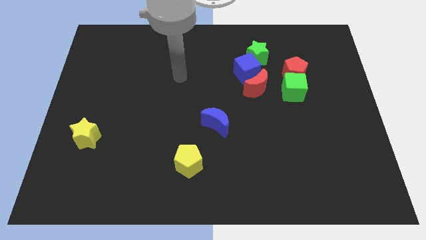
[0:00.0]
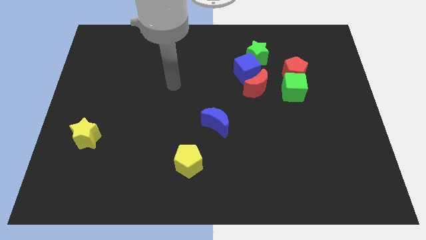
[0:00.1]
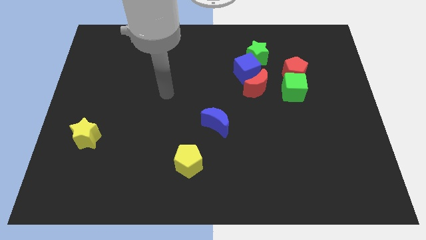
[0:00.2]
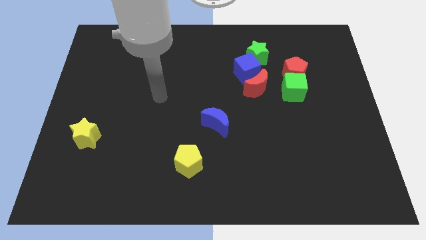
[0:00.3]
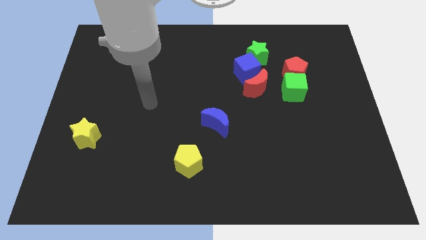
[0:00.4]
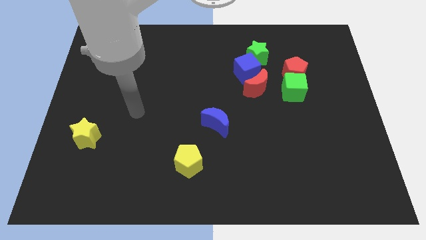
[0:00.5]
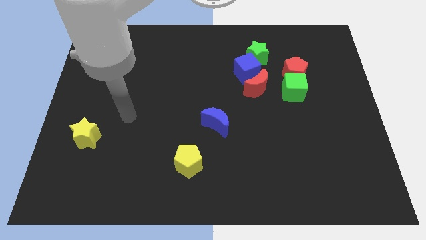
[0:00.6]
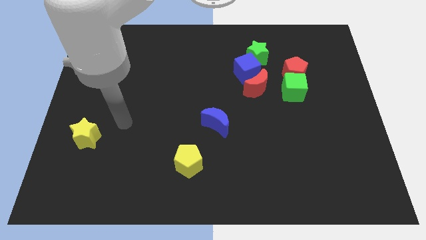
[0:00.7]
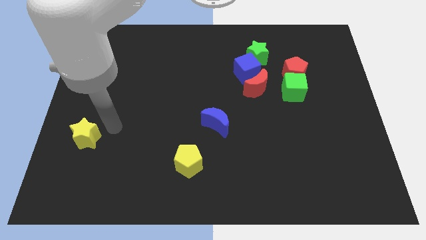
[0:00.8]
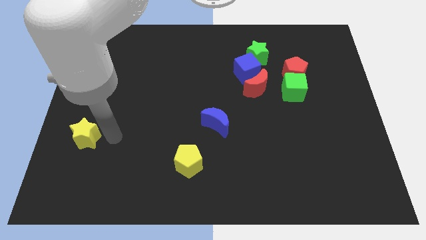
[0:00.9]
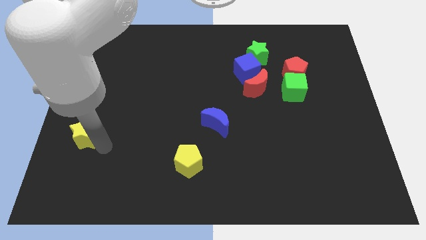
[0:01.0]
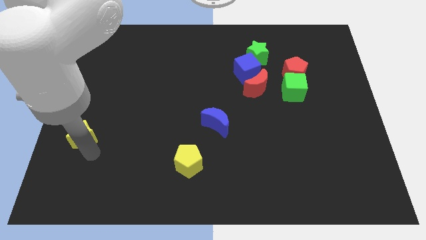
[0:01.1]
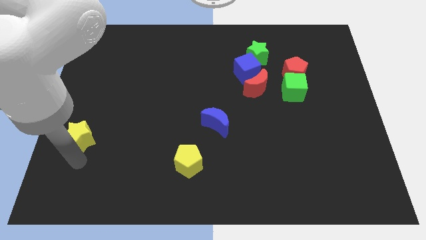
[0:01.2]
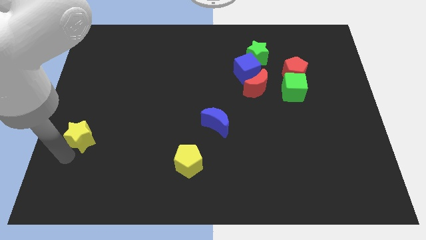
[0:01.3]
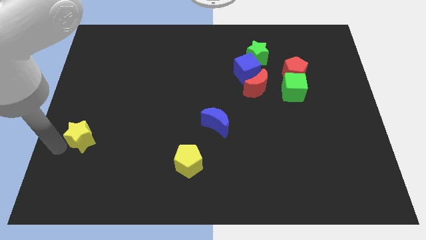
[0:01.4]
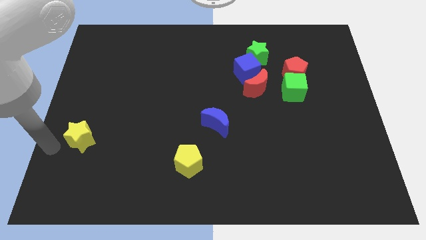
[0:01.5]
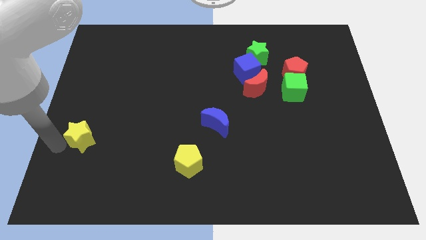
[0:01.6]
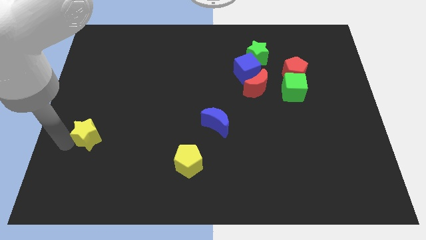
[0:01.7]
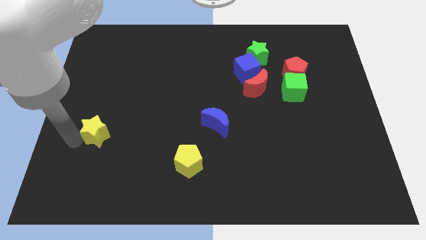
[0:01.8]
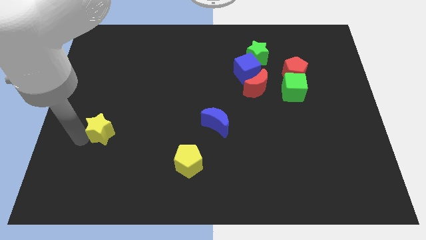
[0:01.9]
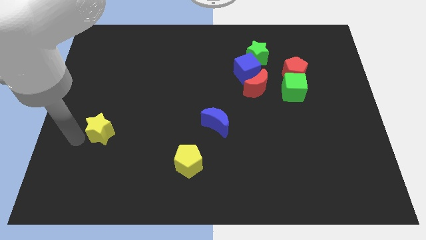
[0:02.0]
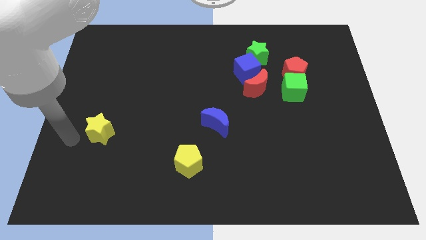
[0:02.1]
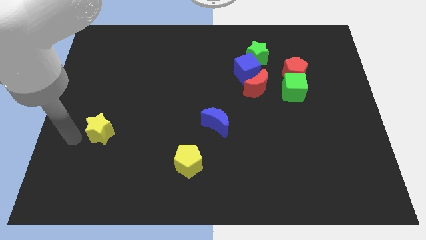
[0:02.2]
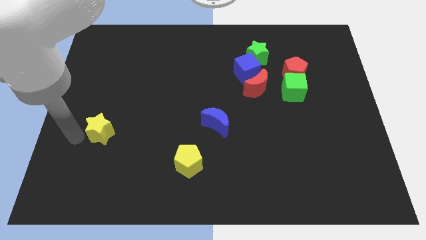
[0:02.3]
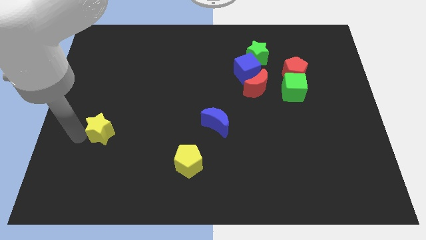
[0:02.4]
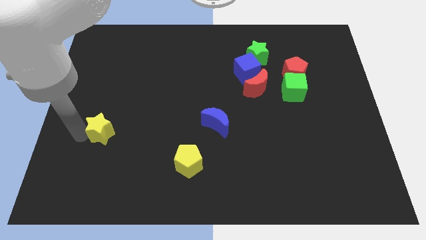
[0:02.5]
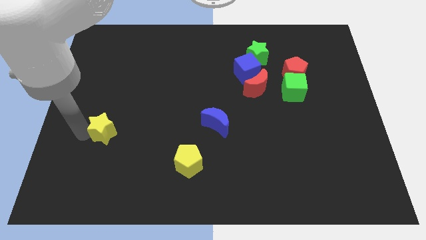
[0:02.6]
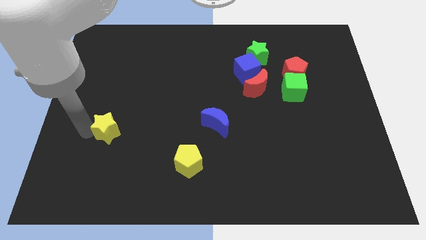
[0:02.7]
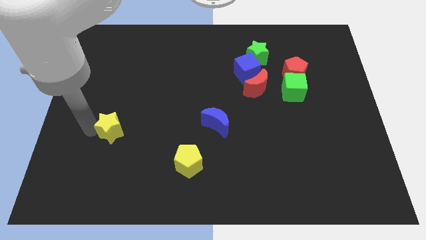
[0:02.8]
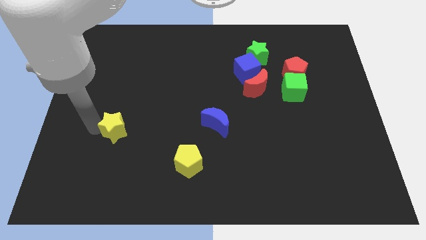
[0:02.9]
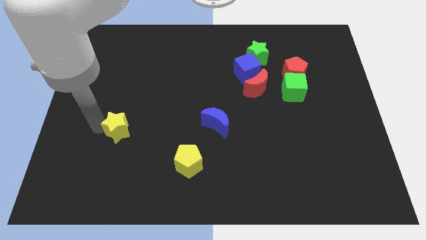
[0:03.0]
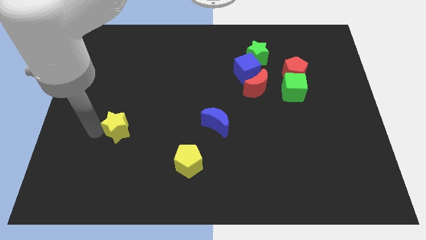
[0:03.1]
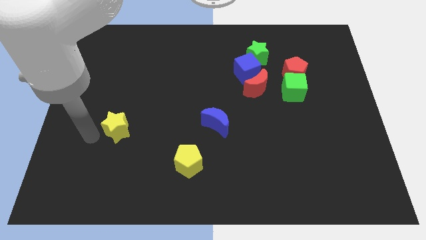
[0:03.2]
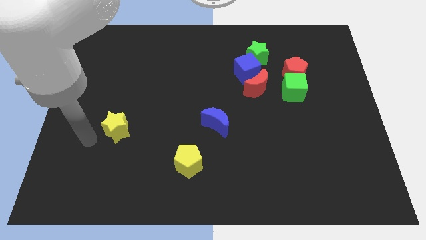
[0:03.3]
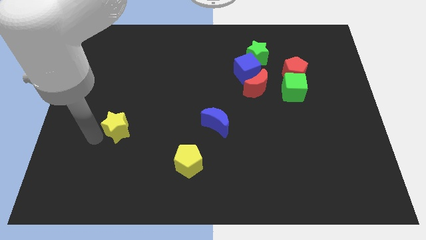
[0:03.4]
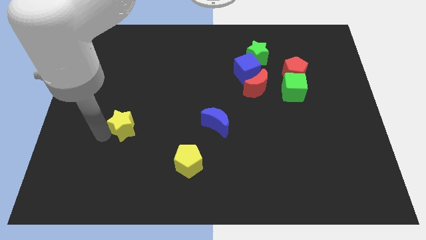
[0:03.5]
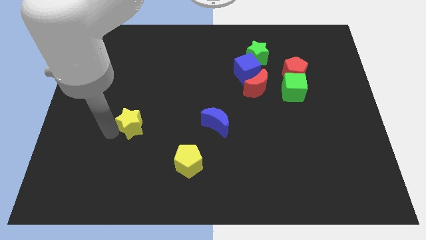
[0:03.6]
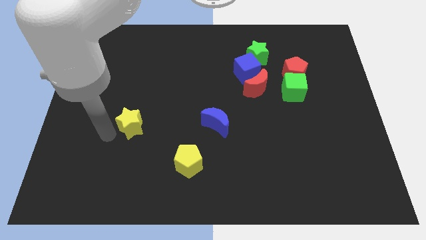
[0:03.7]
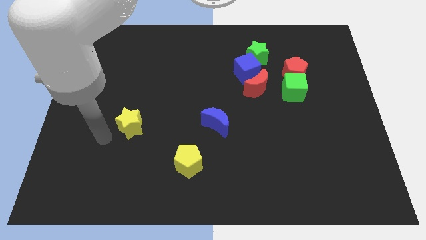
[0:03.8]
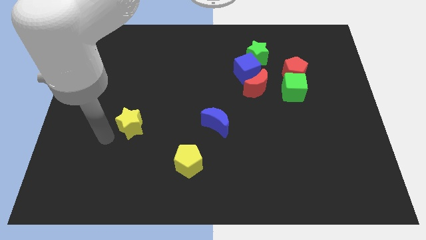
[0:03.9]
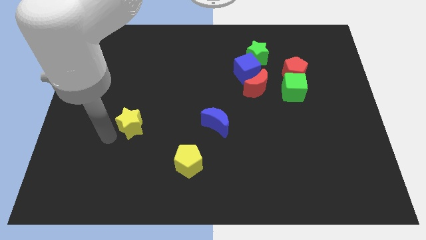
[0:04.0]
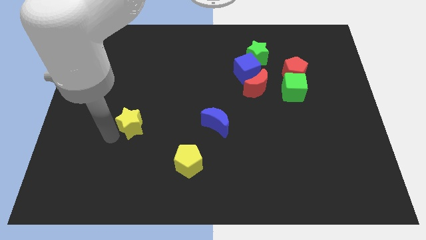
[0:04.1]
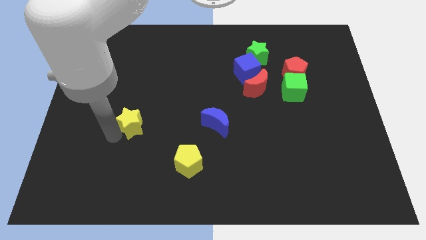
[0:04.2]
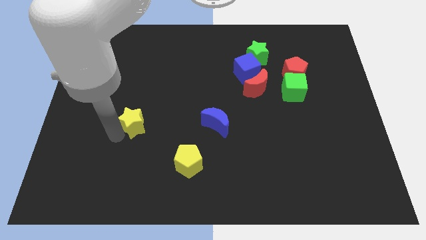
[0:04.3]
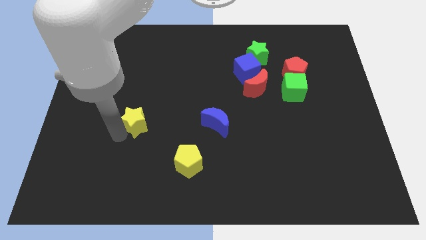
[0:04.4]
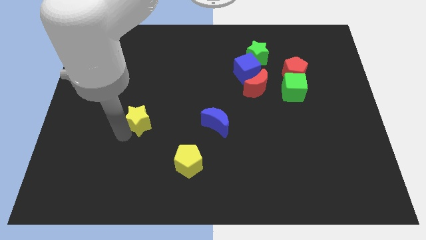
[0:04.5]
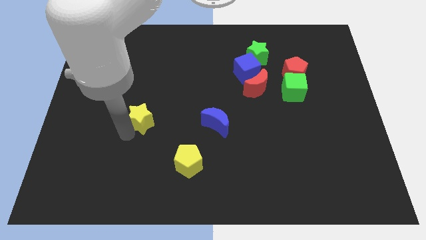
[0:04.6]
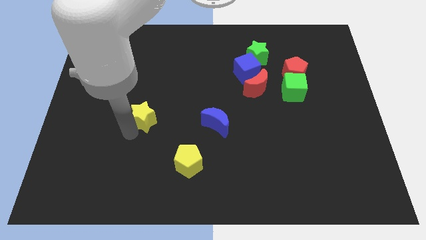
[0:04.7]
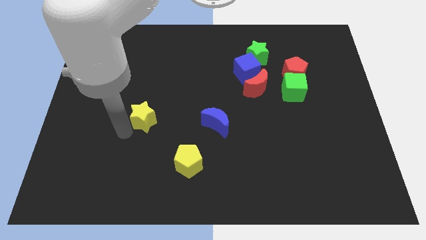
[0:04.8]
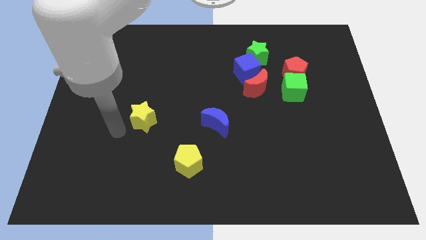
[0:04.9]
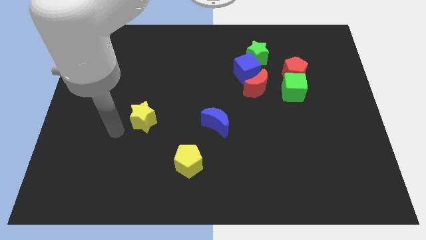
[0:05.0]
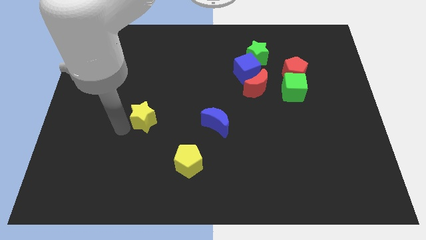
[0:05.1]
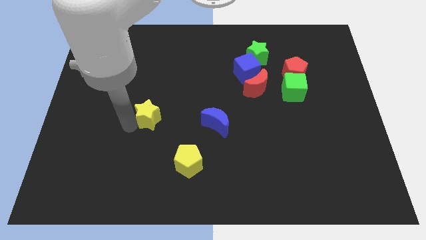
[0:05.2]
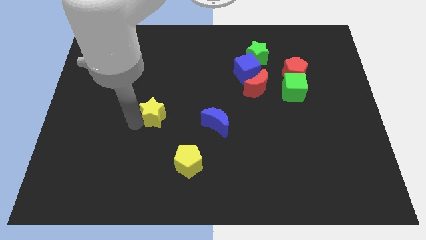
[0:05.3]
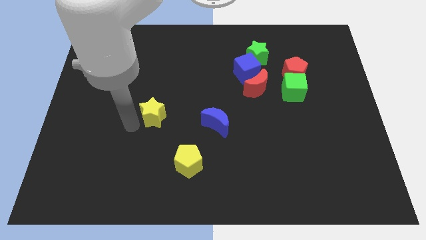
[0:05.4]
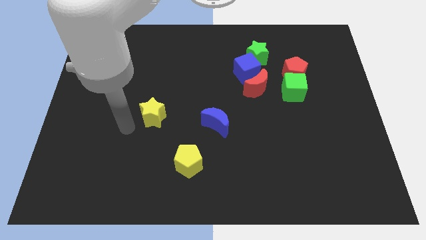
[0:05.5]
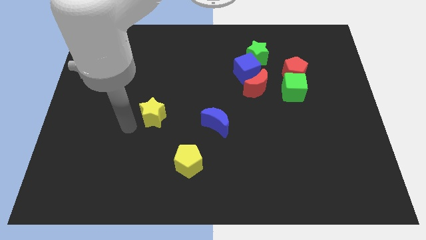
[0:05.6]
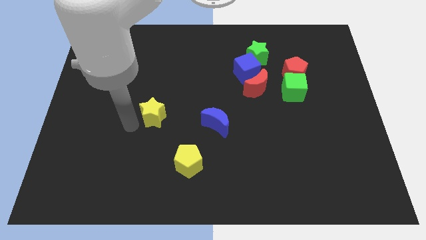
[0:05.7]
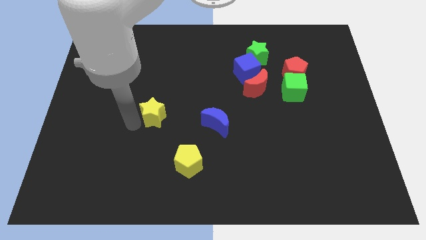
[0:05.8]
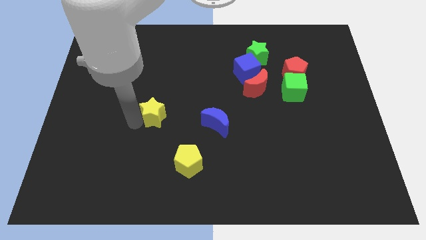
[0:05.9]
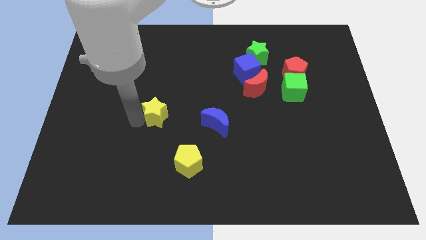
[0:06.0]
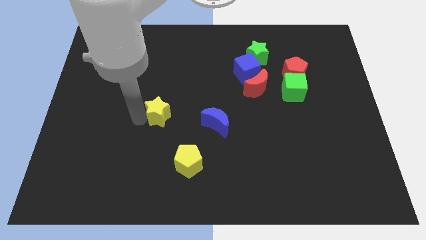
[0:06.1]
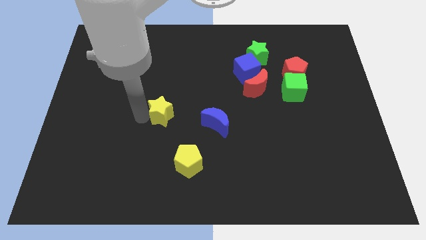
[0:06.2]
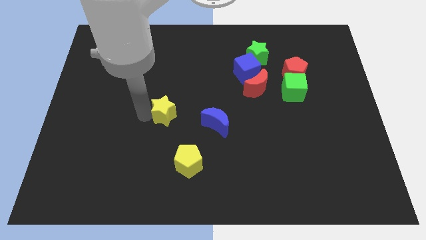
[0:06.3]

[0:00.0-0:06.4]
put the yellow star to the middle of the board
